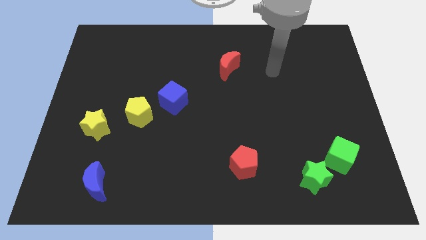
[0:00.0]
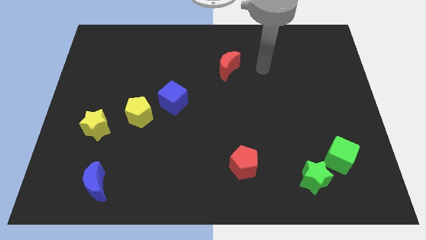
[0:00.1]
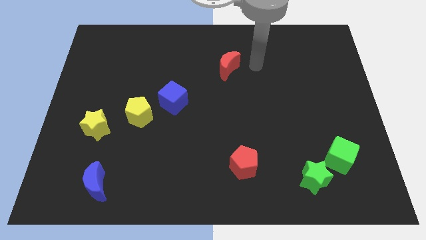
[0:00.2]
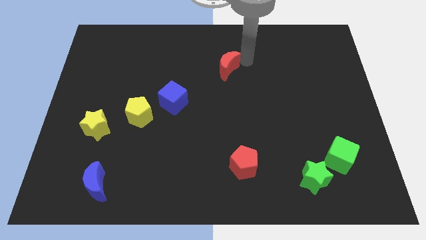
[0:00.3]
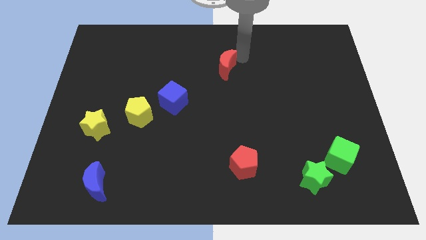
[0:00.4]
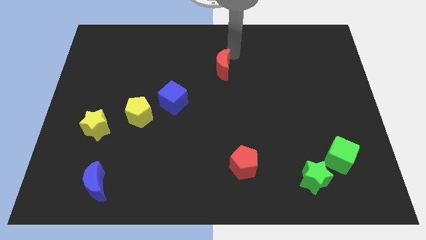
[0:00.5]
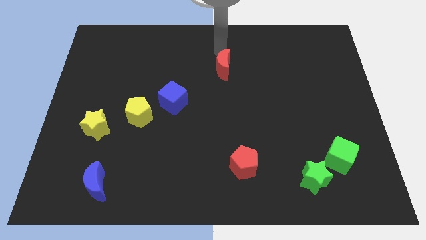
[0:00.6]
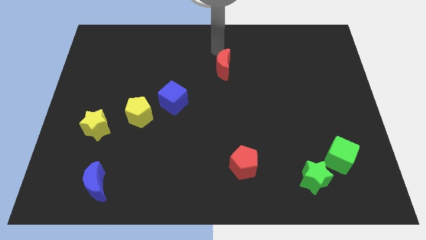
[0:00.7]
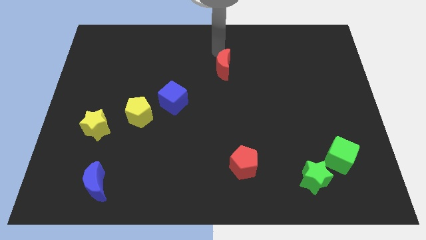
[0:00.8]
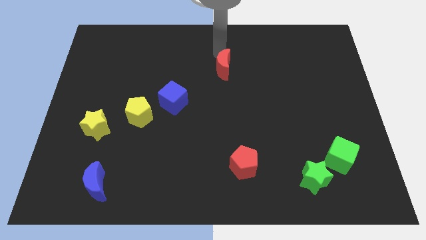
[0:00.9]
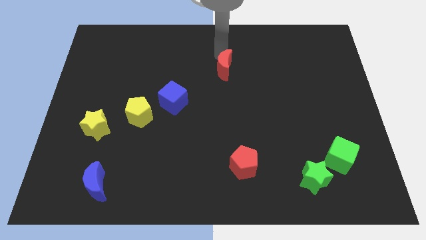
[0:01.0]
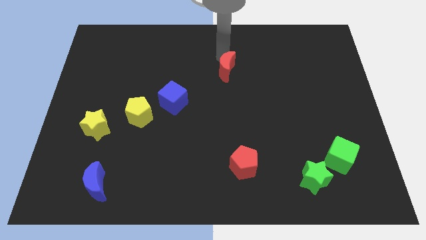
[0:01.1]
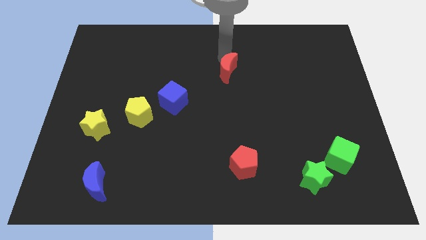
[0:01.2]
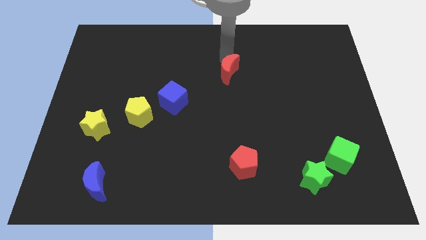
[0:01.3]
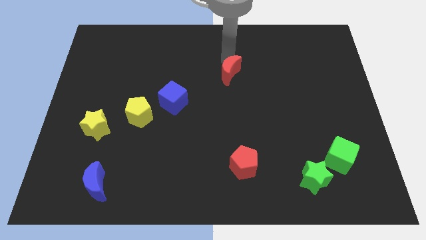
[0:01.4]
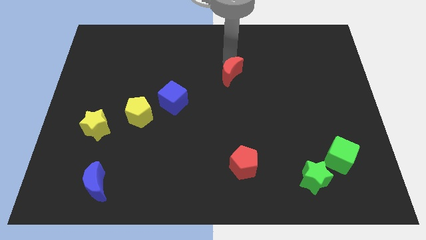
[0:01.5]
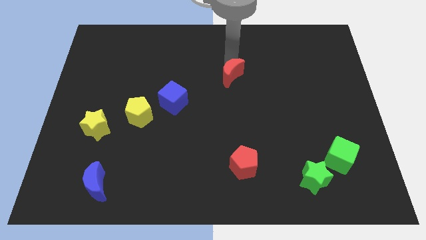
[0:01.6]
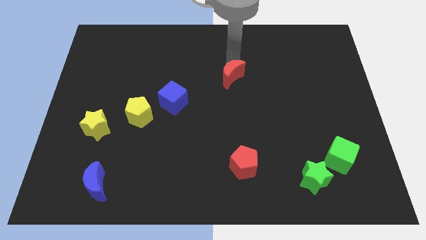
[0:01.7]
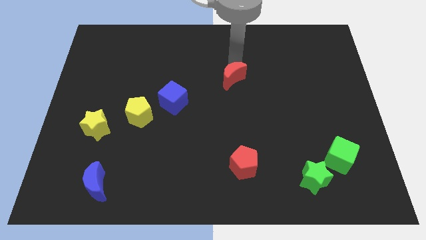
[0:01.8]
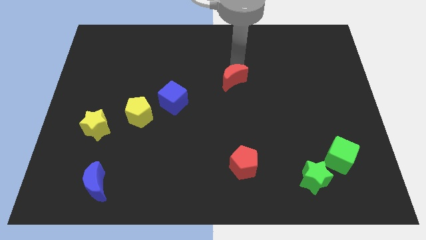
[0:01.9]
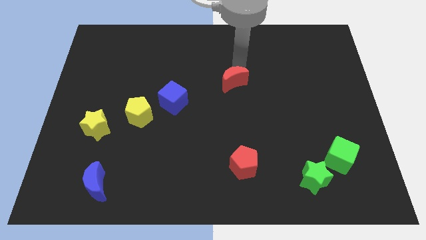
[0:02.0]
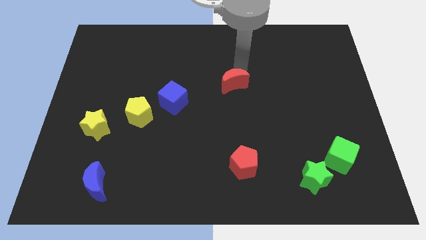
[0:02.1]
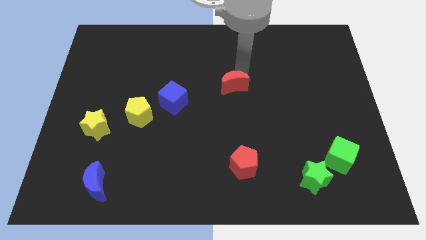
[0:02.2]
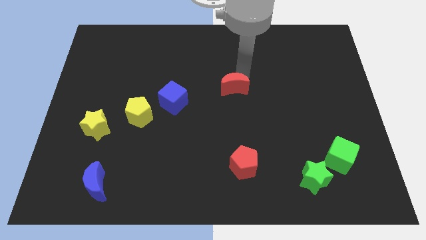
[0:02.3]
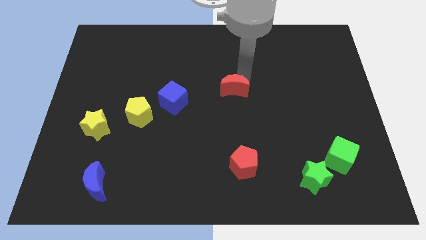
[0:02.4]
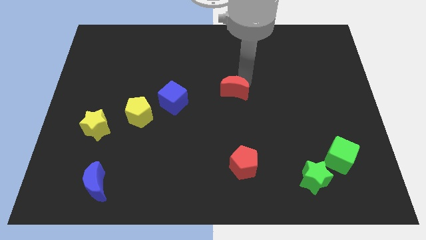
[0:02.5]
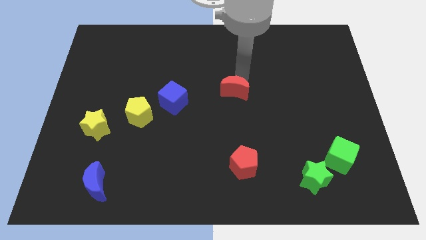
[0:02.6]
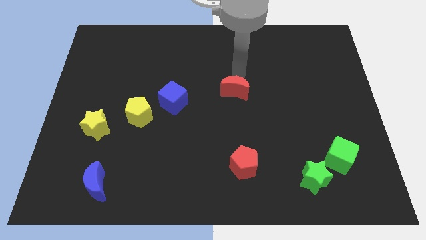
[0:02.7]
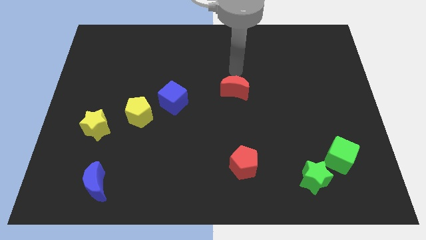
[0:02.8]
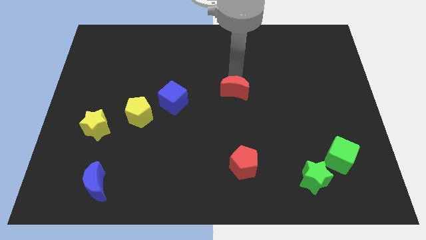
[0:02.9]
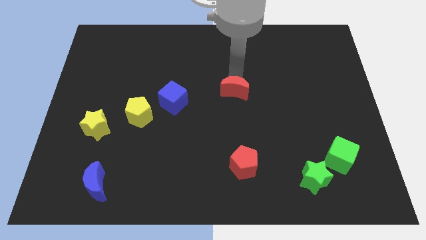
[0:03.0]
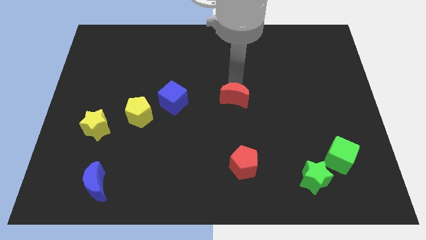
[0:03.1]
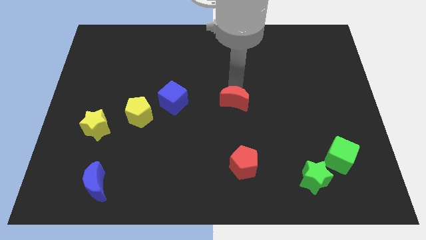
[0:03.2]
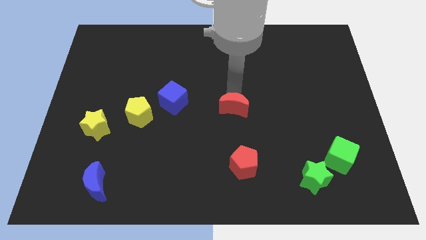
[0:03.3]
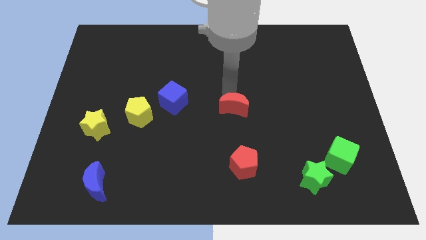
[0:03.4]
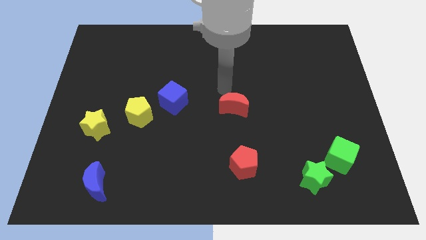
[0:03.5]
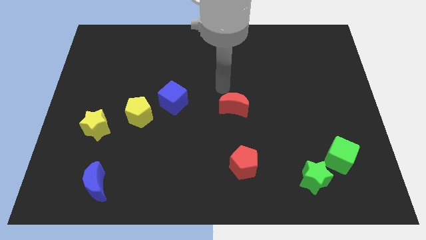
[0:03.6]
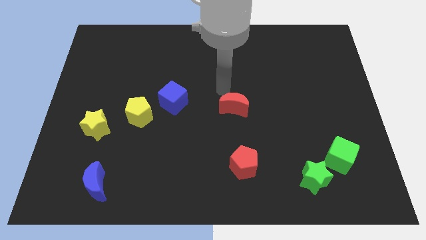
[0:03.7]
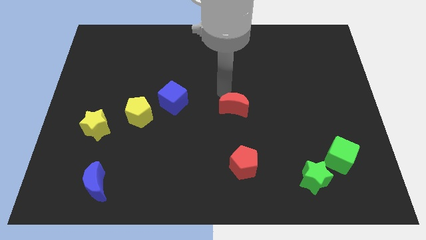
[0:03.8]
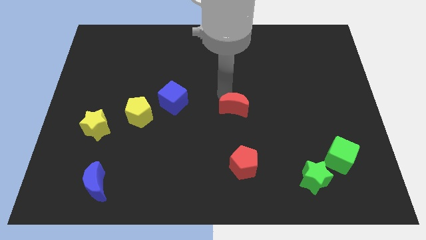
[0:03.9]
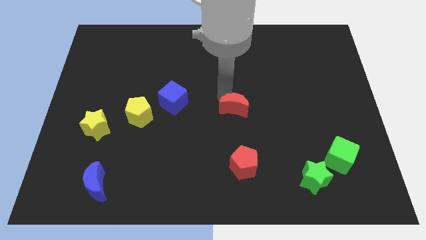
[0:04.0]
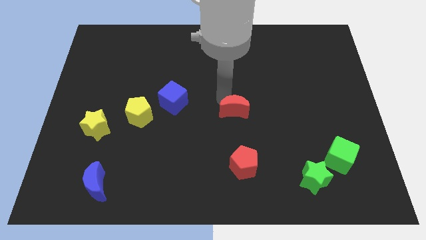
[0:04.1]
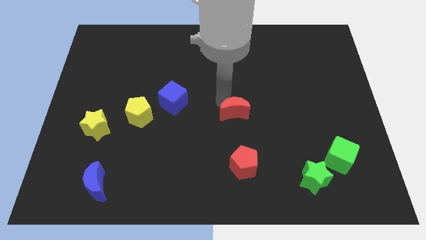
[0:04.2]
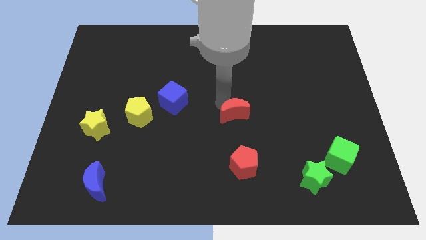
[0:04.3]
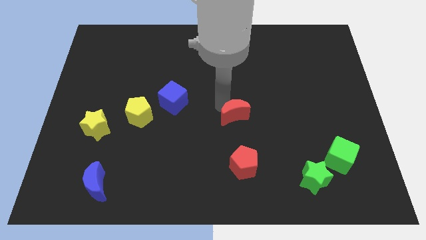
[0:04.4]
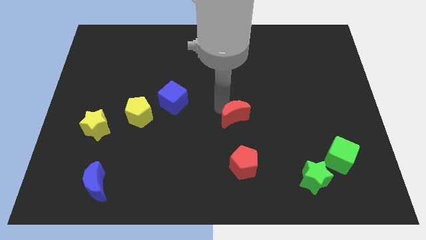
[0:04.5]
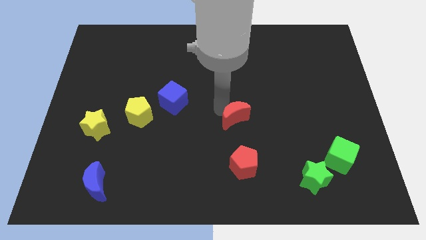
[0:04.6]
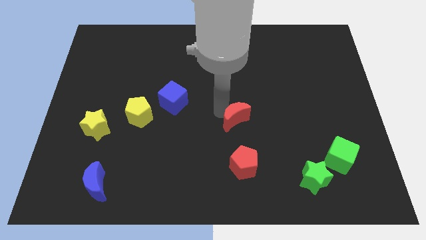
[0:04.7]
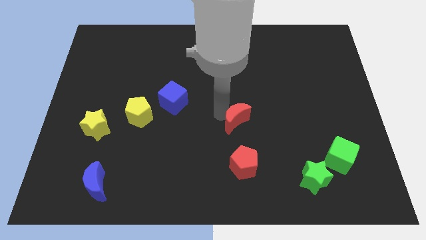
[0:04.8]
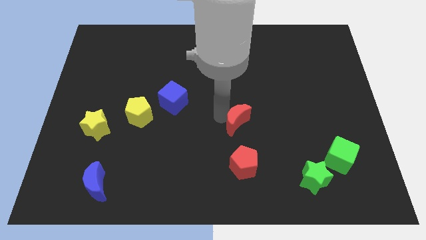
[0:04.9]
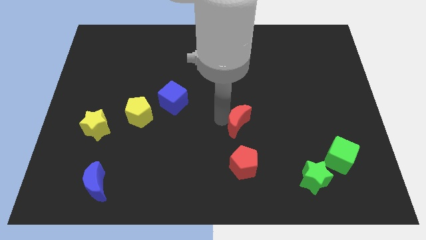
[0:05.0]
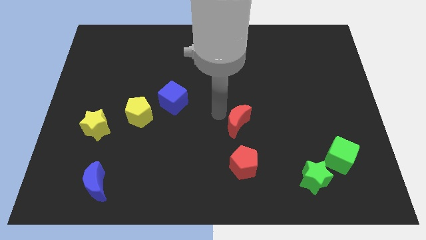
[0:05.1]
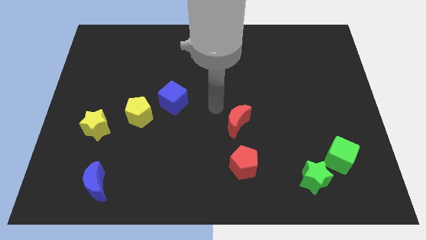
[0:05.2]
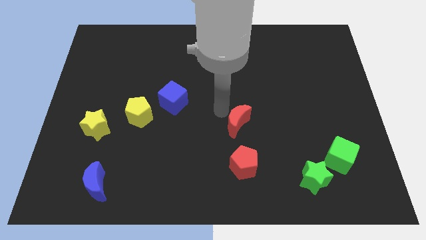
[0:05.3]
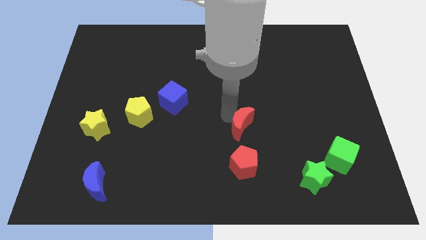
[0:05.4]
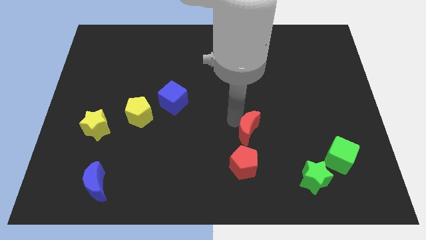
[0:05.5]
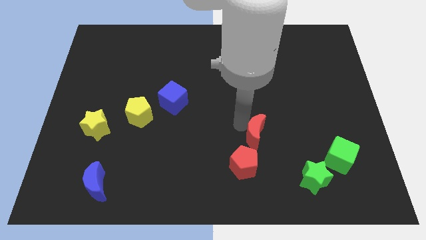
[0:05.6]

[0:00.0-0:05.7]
move the red moon to the top right of the red pentagon

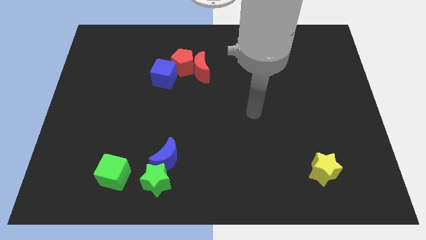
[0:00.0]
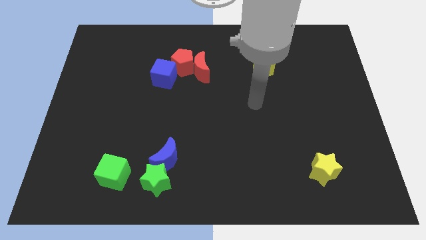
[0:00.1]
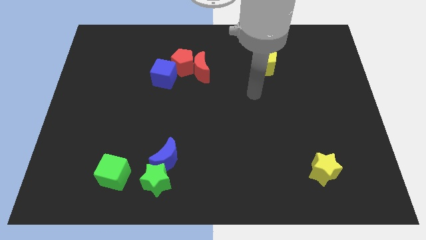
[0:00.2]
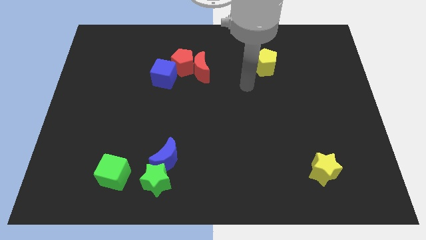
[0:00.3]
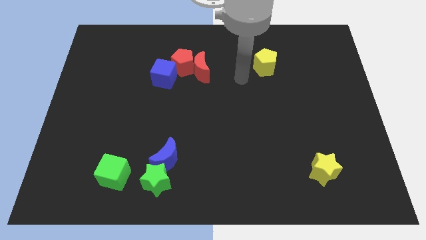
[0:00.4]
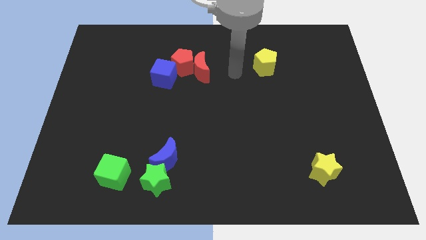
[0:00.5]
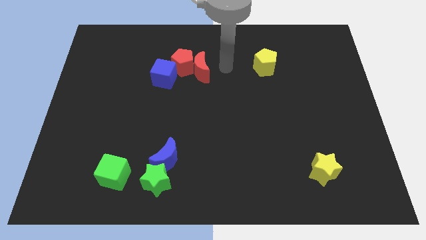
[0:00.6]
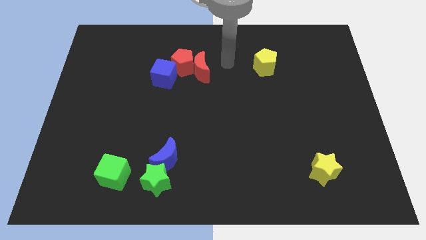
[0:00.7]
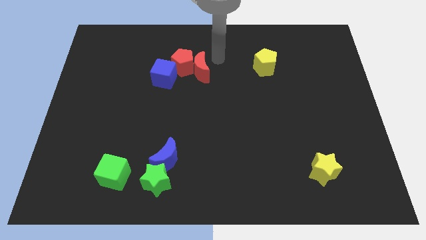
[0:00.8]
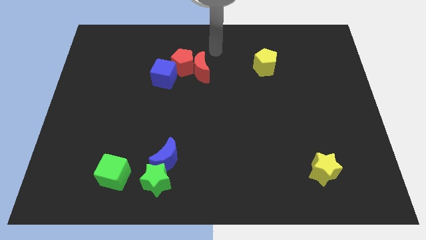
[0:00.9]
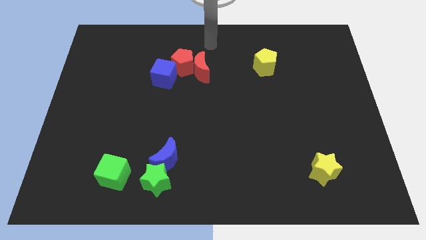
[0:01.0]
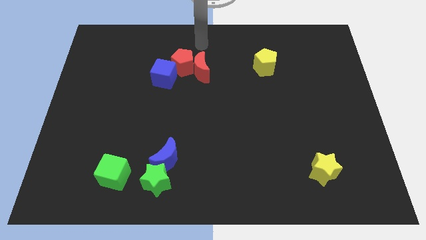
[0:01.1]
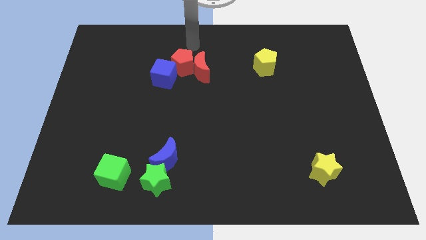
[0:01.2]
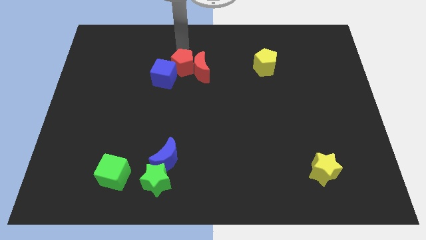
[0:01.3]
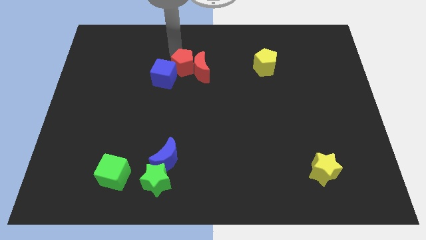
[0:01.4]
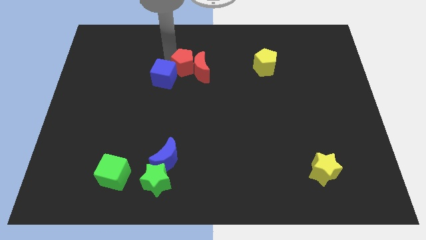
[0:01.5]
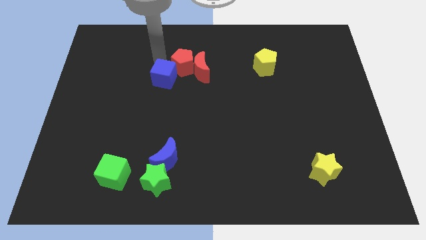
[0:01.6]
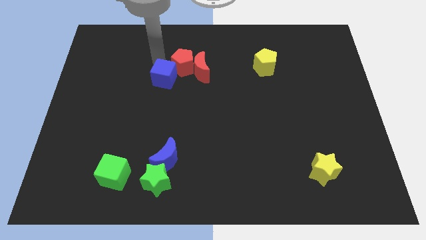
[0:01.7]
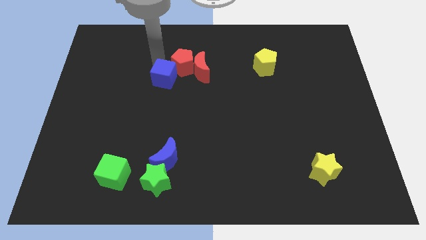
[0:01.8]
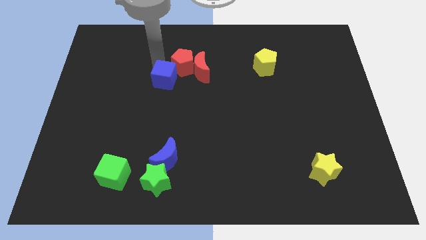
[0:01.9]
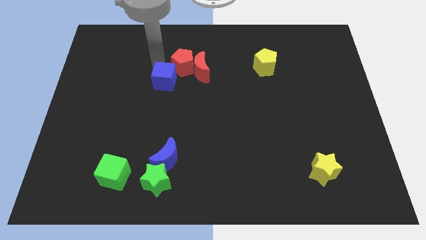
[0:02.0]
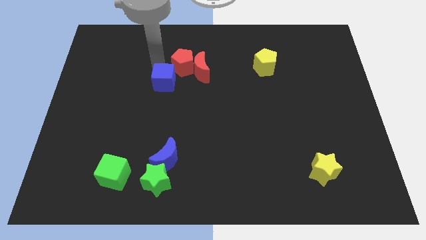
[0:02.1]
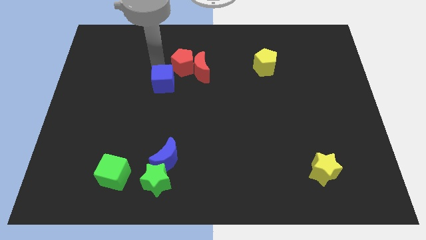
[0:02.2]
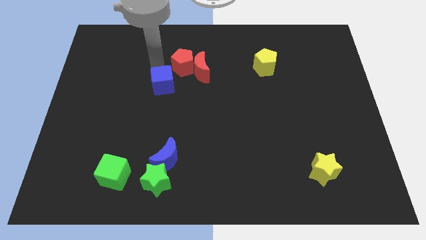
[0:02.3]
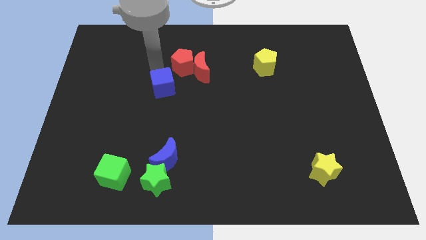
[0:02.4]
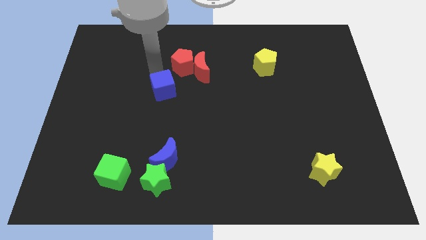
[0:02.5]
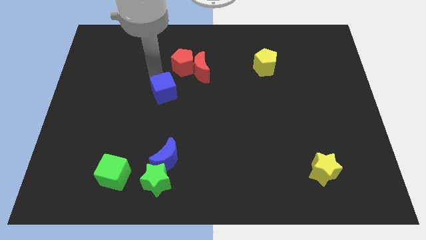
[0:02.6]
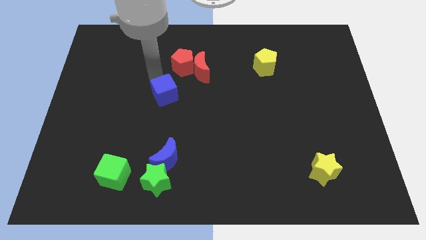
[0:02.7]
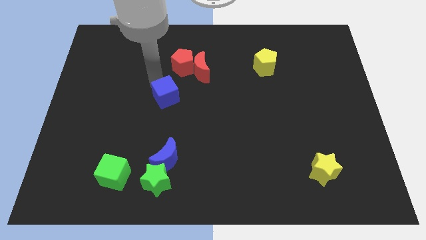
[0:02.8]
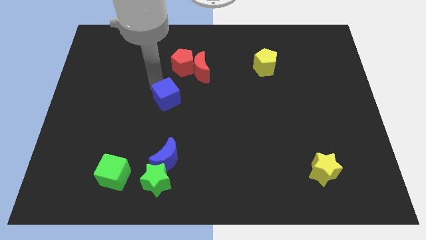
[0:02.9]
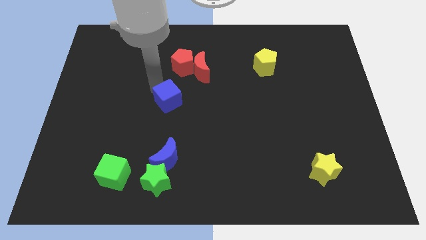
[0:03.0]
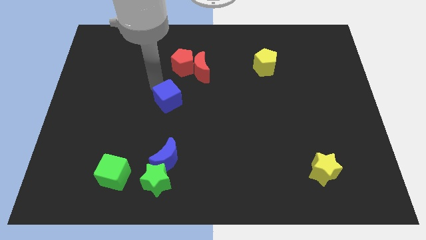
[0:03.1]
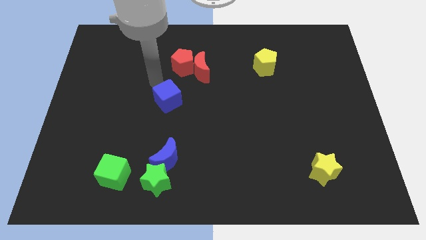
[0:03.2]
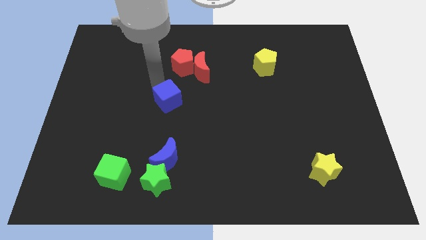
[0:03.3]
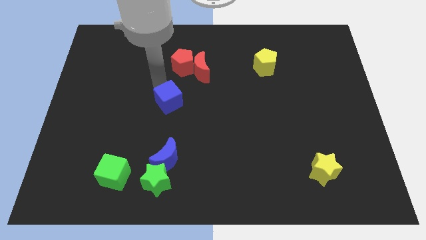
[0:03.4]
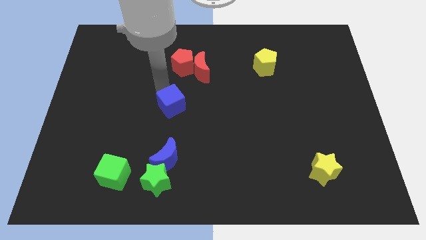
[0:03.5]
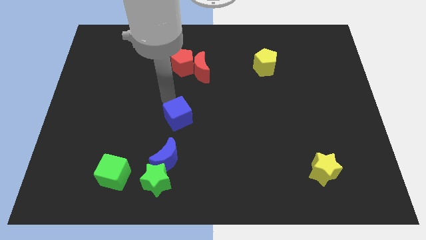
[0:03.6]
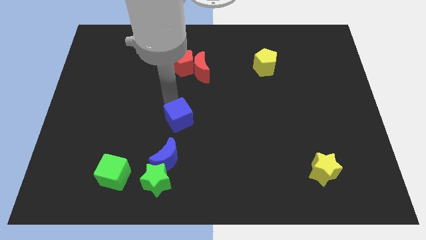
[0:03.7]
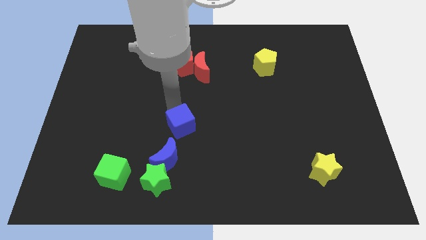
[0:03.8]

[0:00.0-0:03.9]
put the blue cube to the top right side of the blue moon
